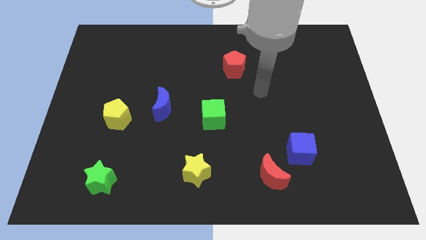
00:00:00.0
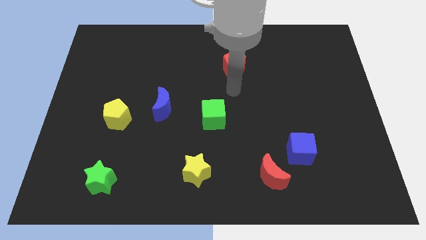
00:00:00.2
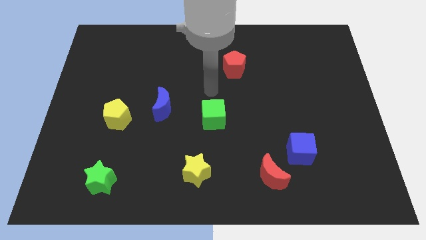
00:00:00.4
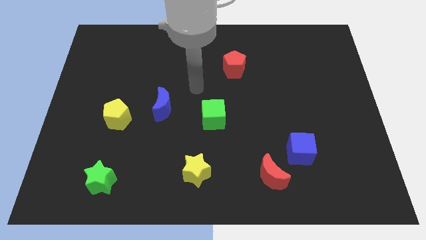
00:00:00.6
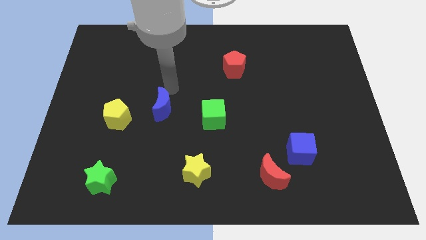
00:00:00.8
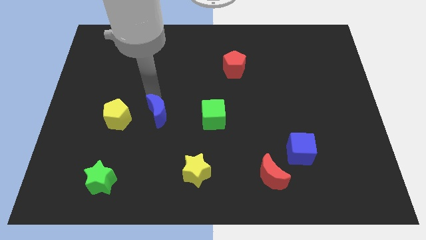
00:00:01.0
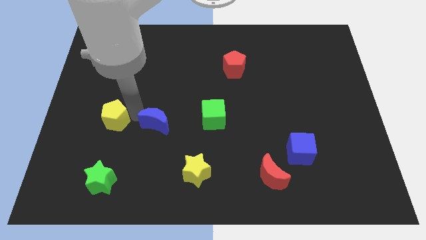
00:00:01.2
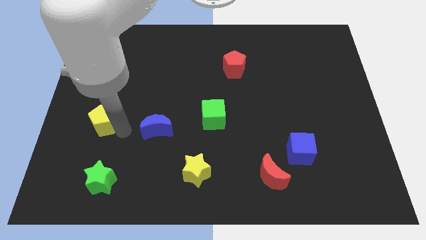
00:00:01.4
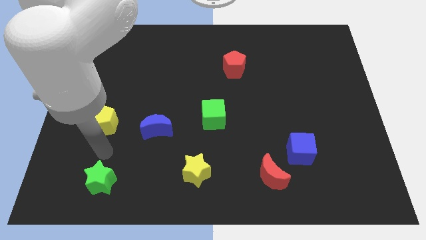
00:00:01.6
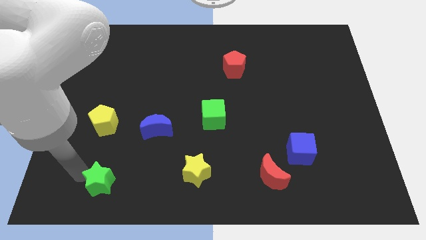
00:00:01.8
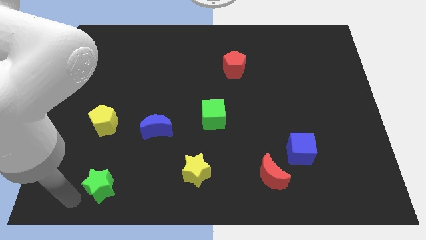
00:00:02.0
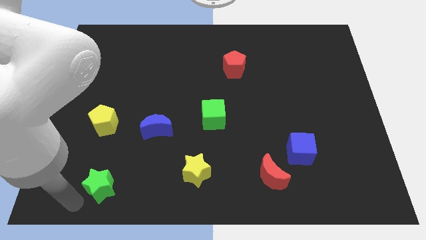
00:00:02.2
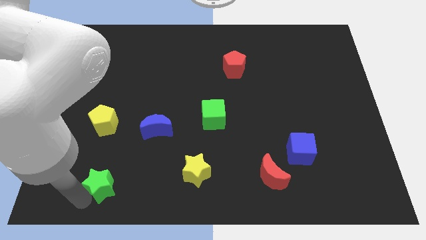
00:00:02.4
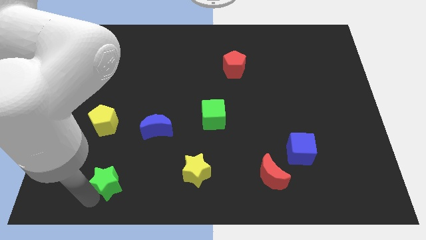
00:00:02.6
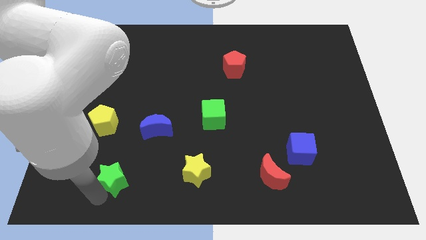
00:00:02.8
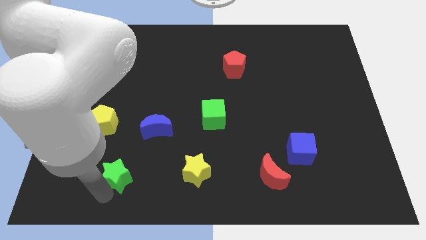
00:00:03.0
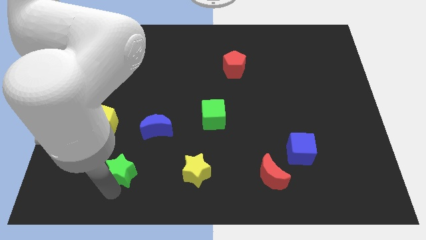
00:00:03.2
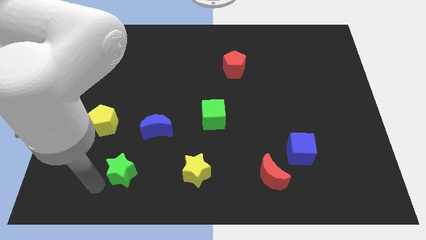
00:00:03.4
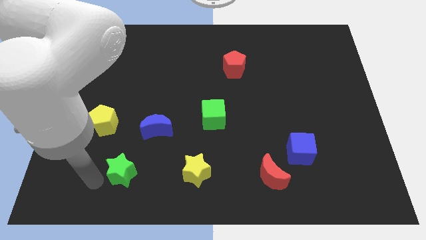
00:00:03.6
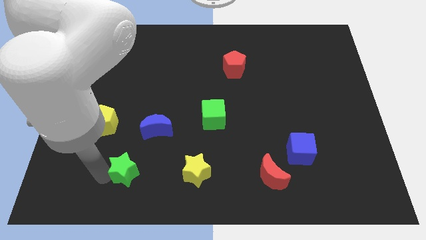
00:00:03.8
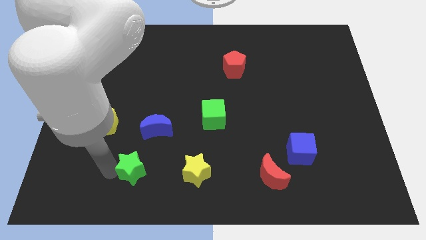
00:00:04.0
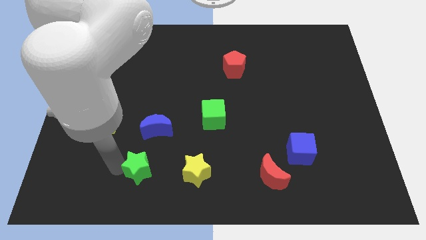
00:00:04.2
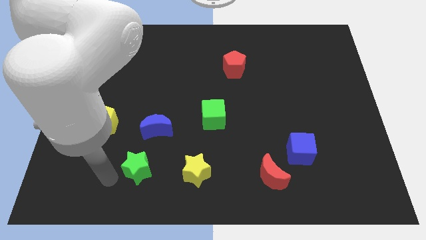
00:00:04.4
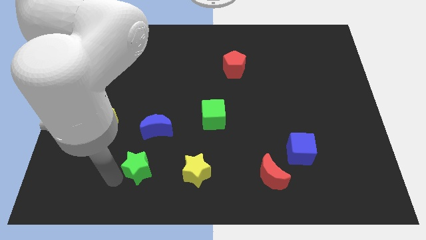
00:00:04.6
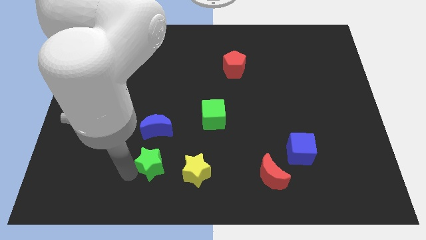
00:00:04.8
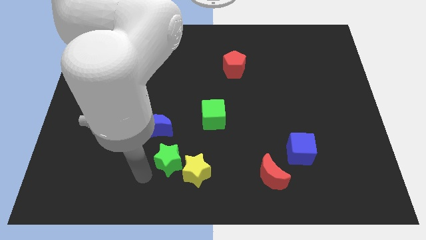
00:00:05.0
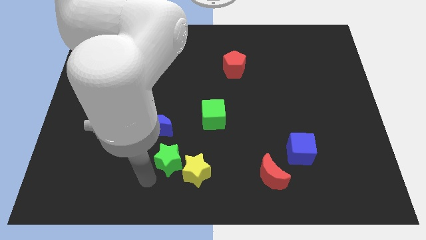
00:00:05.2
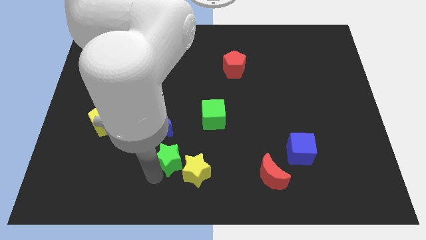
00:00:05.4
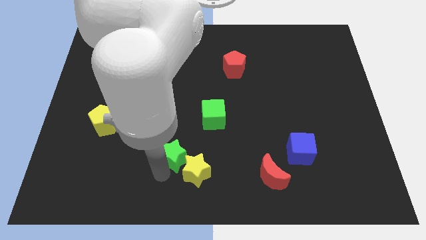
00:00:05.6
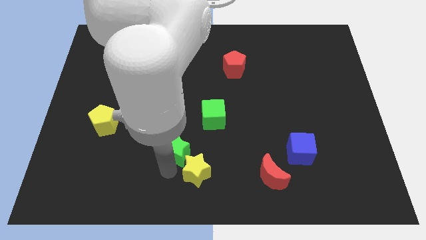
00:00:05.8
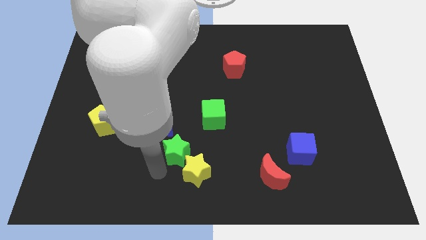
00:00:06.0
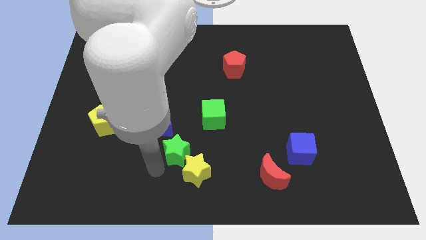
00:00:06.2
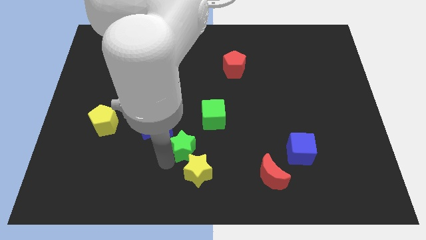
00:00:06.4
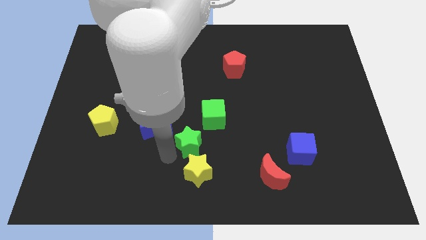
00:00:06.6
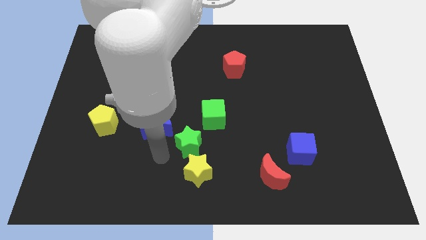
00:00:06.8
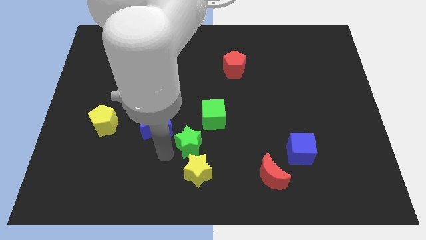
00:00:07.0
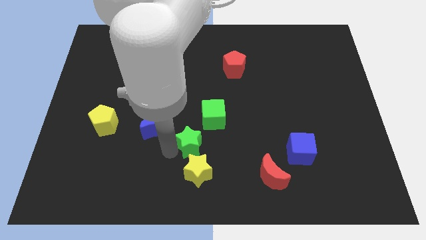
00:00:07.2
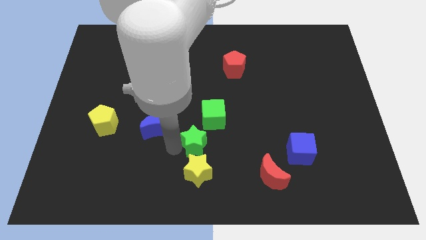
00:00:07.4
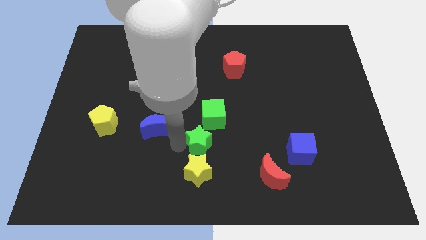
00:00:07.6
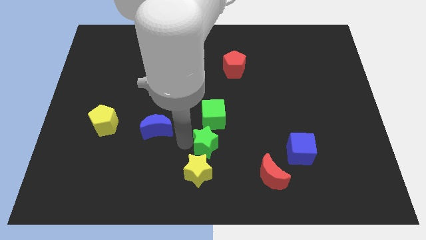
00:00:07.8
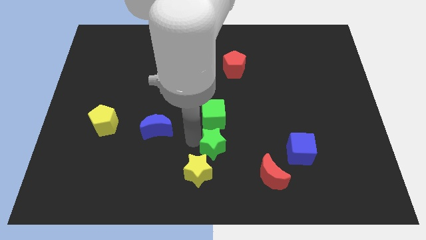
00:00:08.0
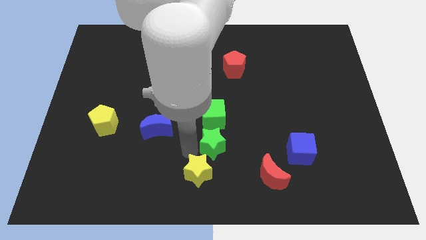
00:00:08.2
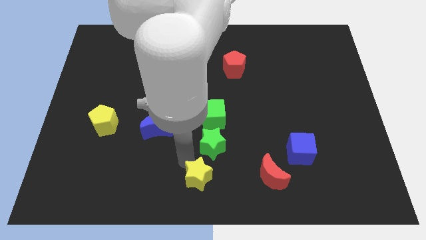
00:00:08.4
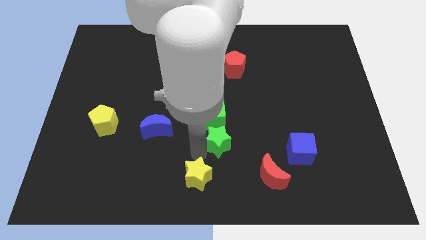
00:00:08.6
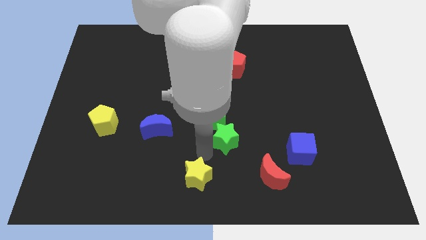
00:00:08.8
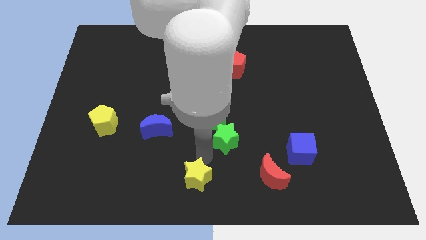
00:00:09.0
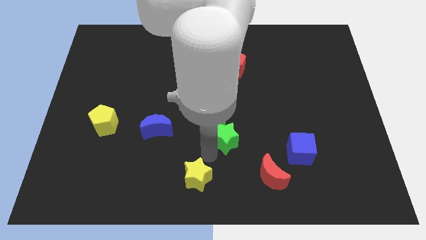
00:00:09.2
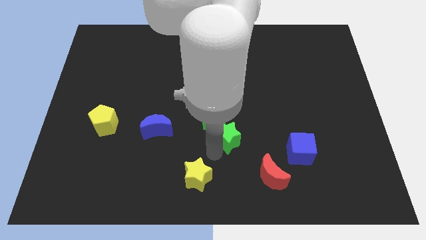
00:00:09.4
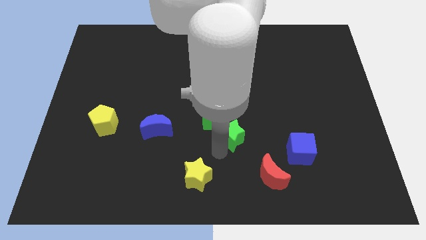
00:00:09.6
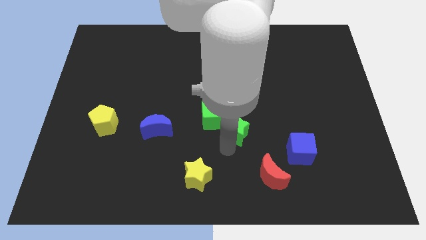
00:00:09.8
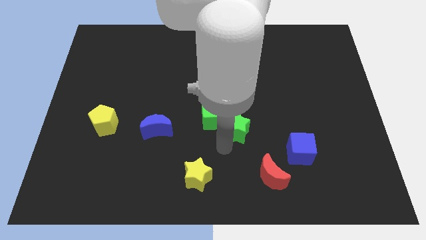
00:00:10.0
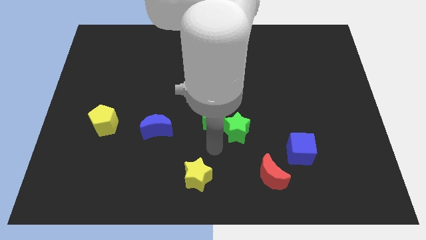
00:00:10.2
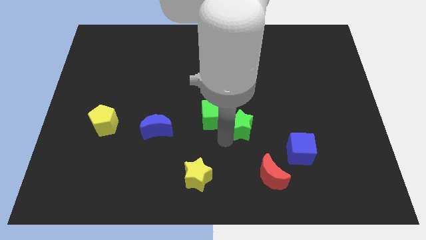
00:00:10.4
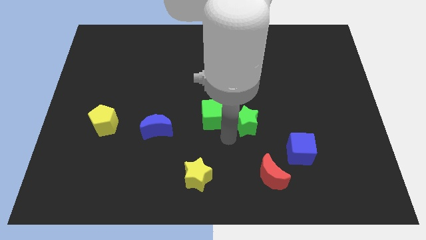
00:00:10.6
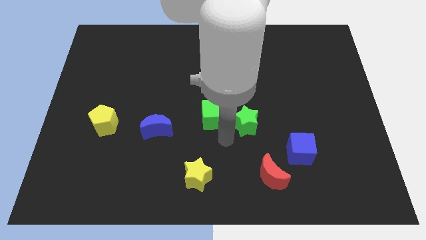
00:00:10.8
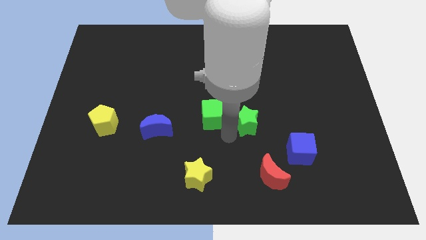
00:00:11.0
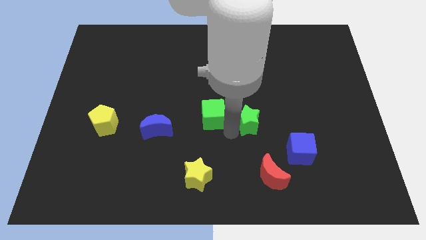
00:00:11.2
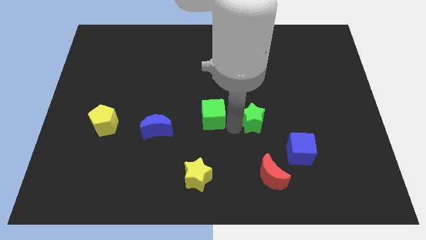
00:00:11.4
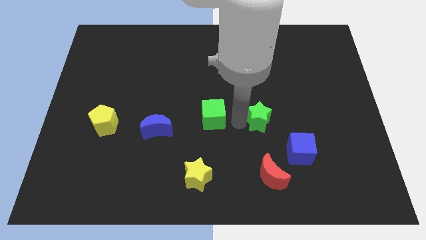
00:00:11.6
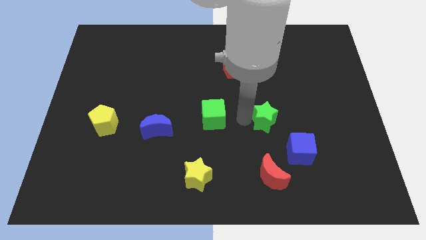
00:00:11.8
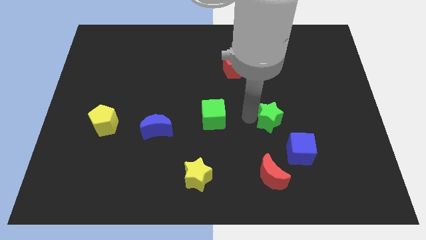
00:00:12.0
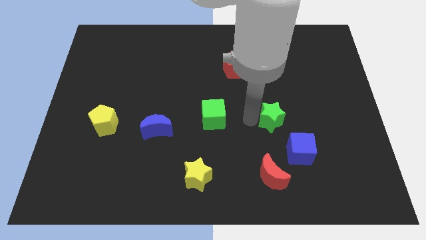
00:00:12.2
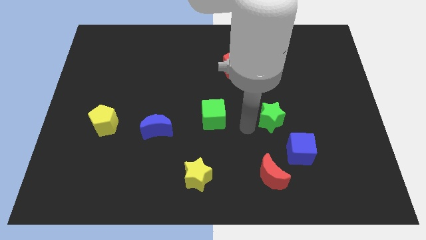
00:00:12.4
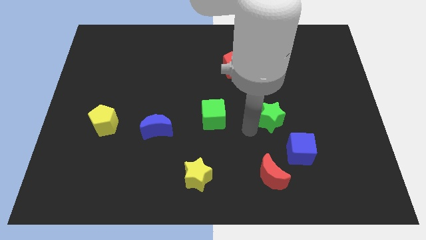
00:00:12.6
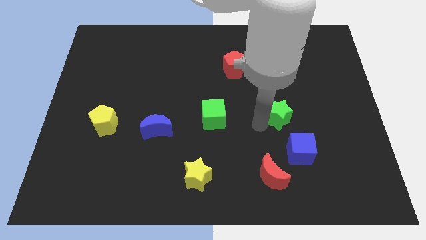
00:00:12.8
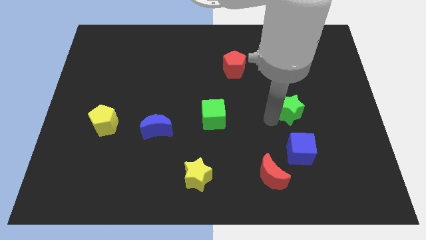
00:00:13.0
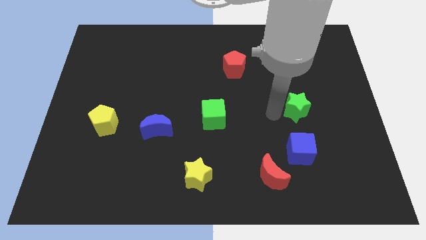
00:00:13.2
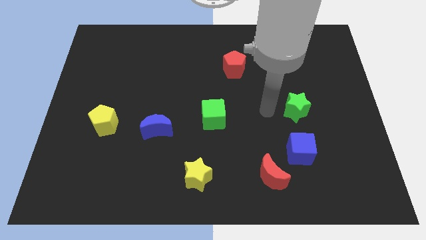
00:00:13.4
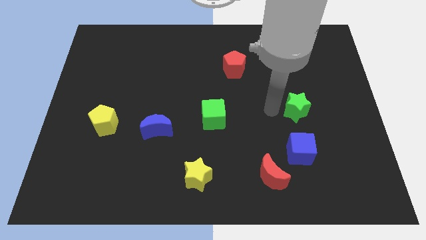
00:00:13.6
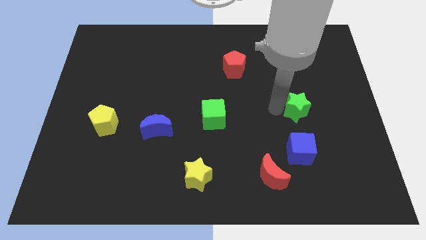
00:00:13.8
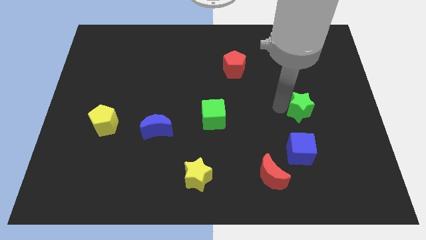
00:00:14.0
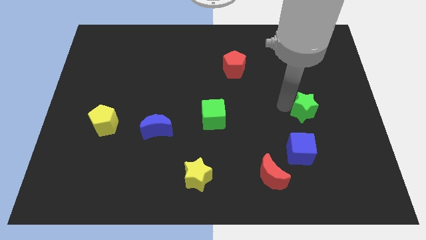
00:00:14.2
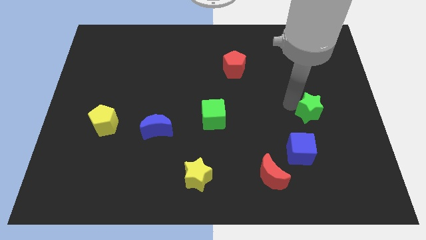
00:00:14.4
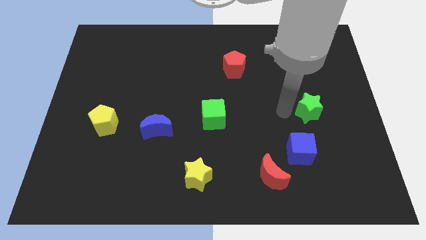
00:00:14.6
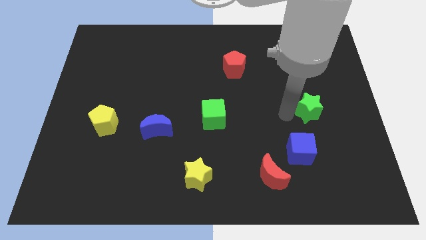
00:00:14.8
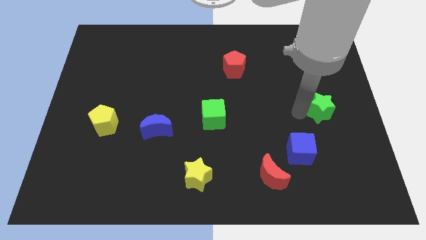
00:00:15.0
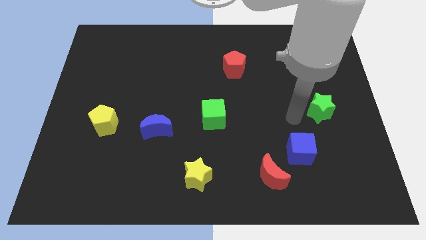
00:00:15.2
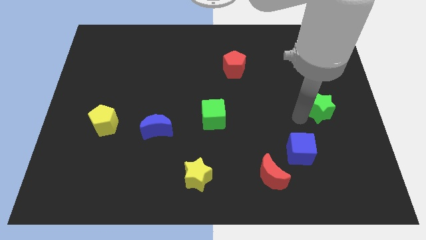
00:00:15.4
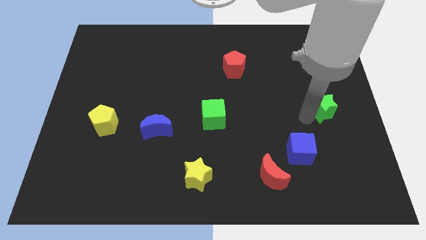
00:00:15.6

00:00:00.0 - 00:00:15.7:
slide the green star to the center right
